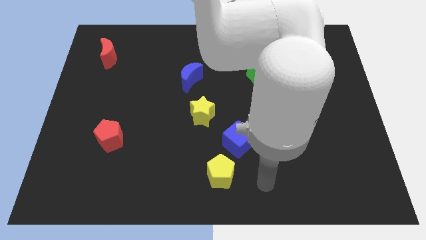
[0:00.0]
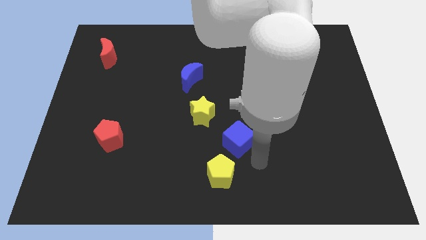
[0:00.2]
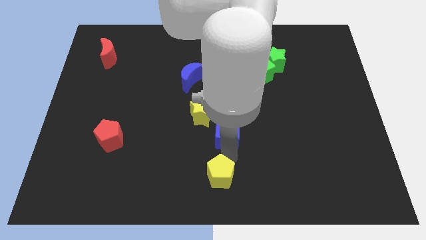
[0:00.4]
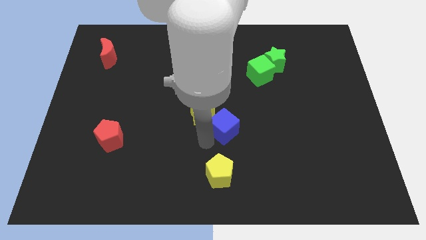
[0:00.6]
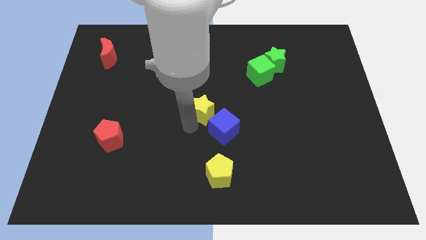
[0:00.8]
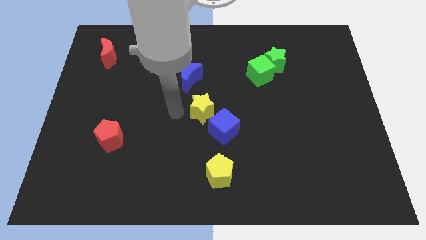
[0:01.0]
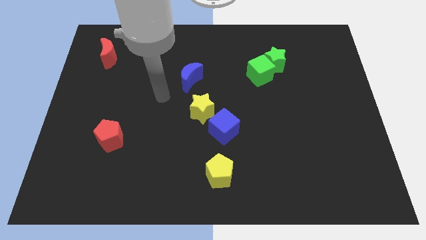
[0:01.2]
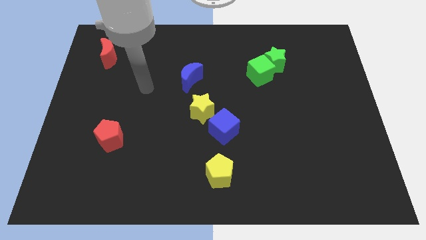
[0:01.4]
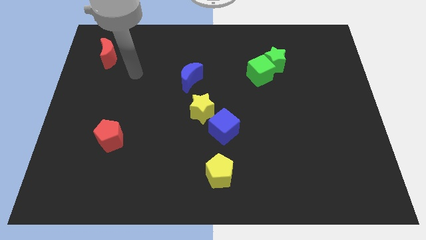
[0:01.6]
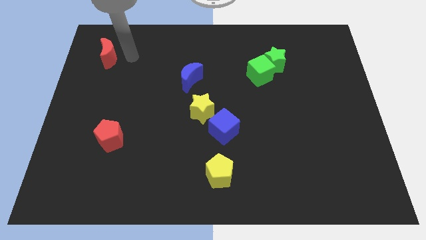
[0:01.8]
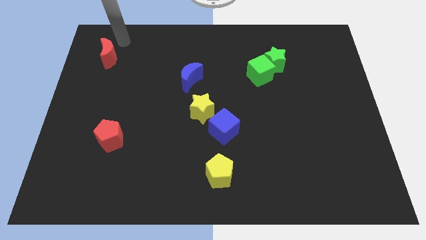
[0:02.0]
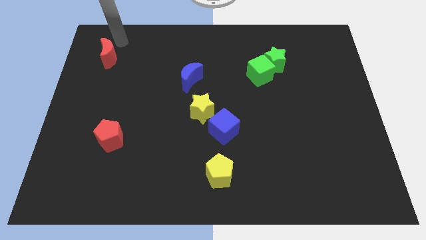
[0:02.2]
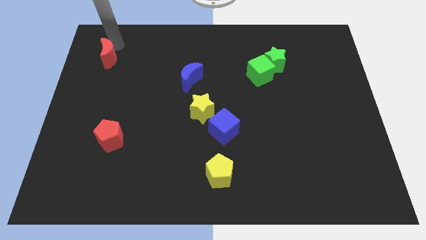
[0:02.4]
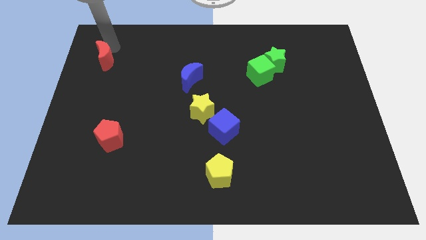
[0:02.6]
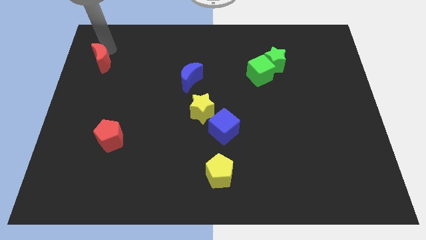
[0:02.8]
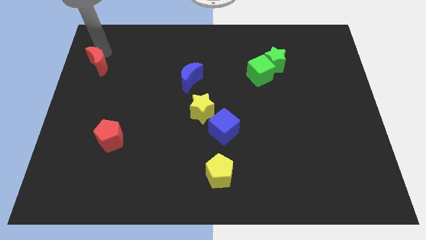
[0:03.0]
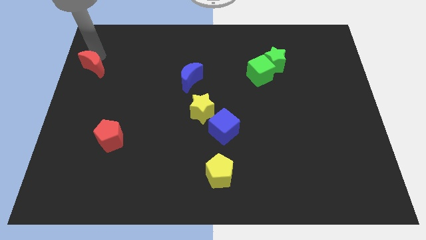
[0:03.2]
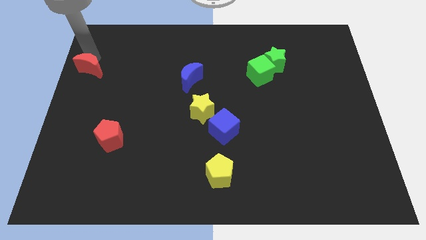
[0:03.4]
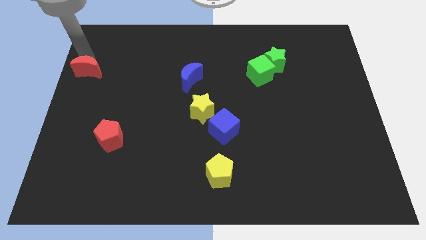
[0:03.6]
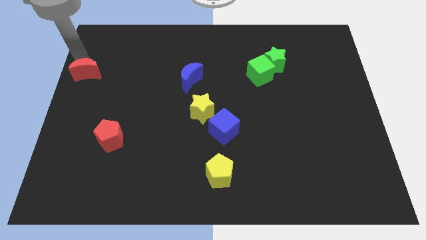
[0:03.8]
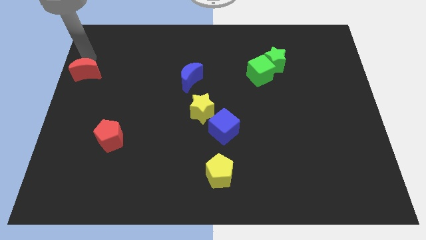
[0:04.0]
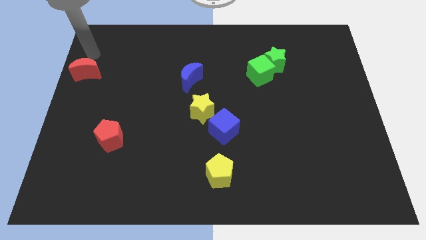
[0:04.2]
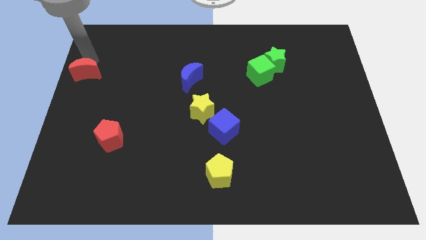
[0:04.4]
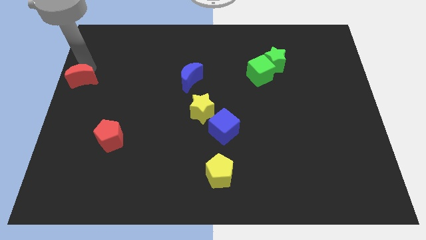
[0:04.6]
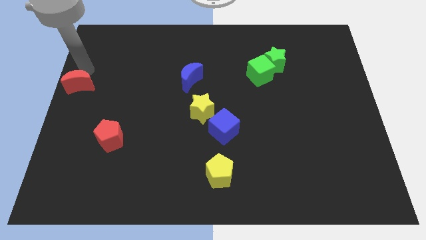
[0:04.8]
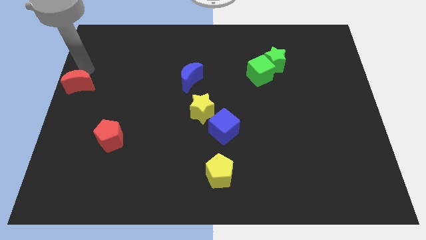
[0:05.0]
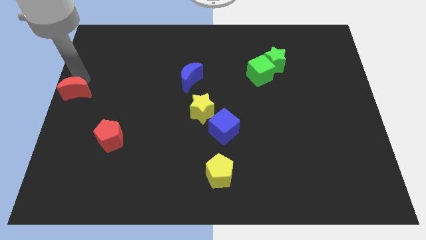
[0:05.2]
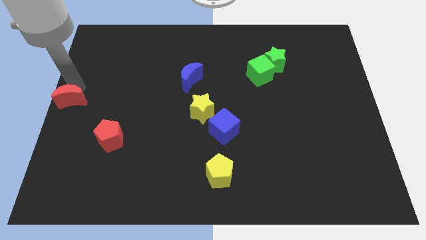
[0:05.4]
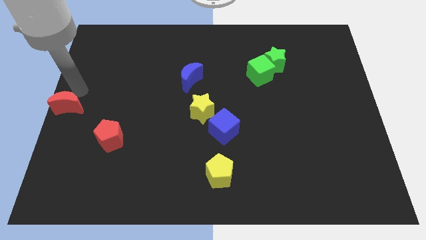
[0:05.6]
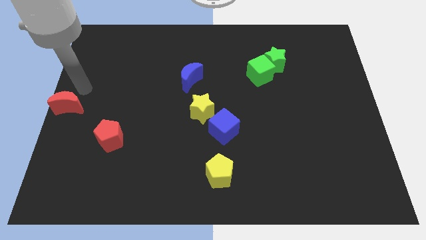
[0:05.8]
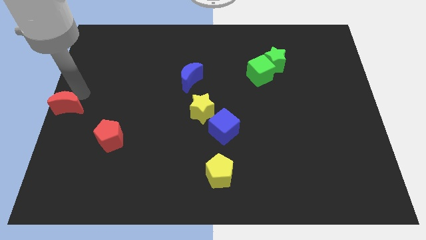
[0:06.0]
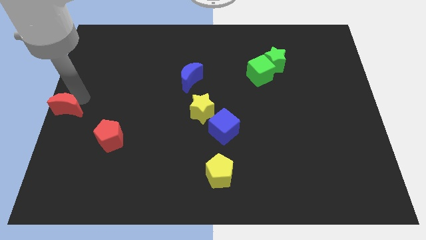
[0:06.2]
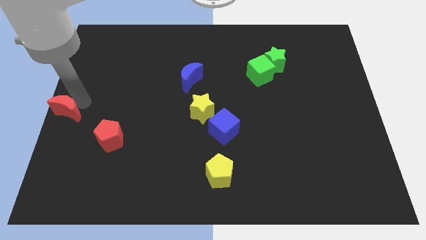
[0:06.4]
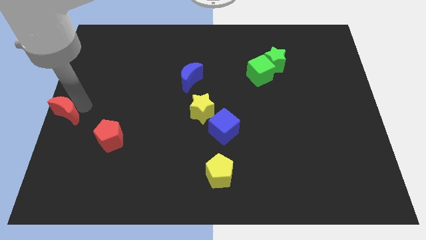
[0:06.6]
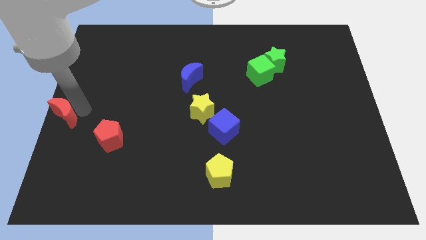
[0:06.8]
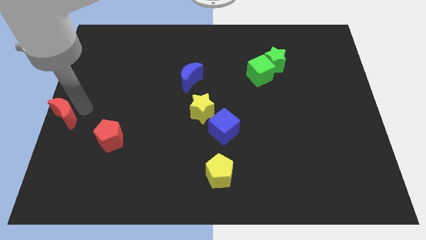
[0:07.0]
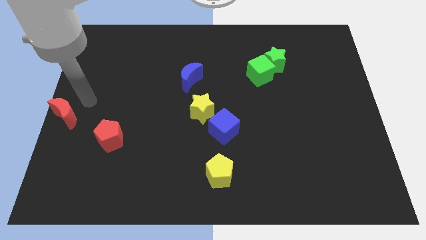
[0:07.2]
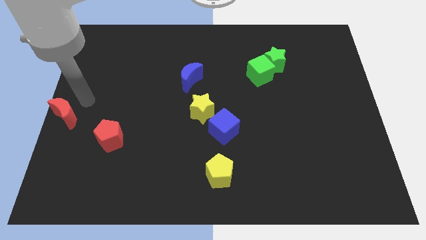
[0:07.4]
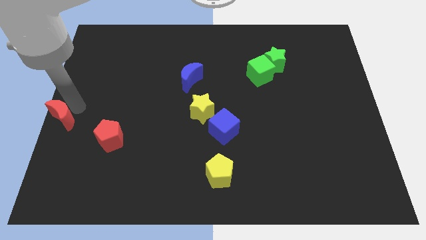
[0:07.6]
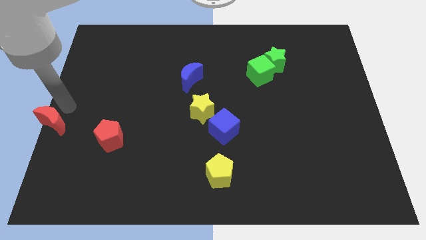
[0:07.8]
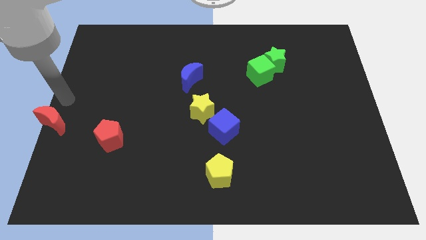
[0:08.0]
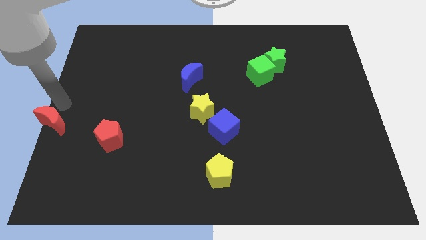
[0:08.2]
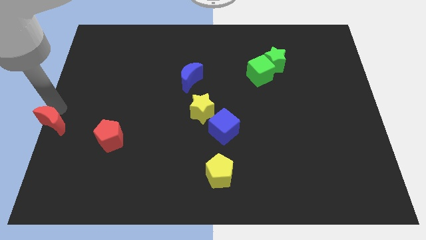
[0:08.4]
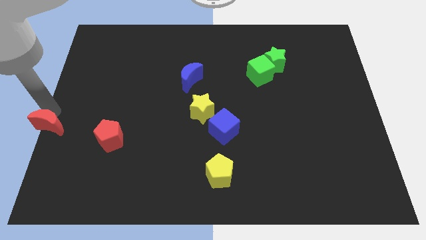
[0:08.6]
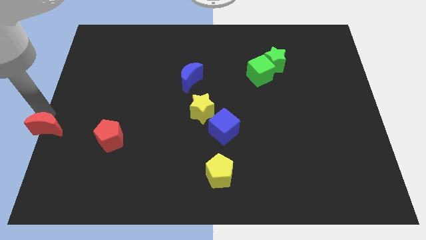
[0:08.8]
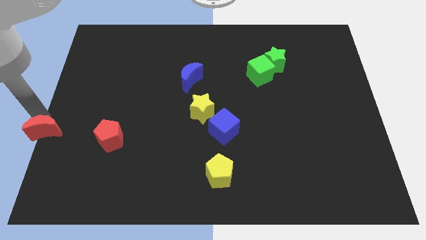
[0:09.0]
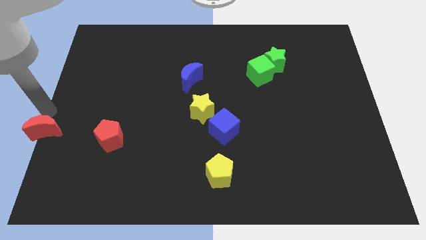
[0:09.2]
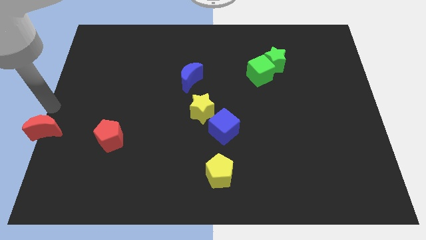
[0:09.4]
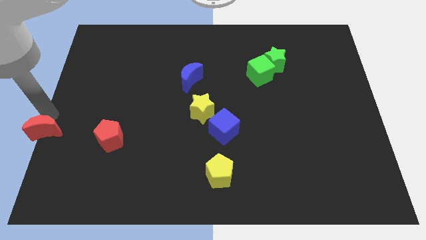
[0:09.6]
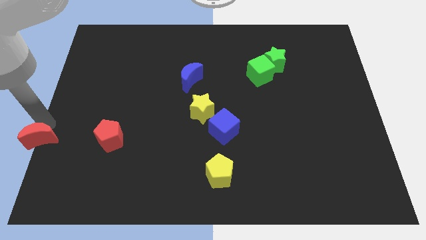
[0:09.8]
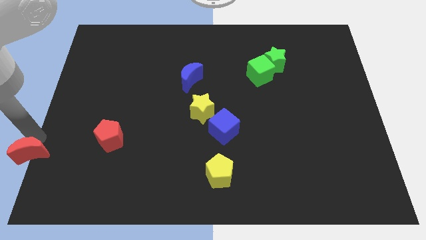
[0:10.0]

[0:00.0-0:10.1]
push the red moon to the bottom left of the board

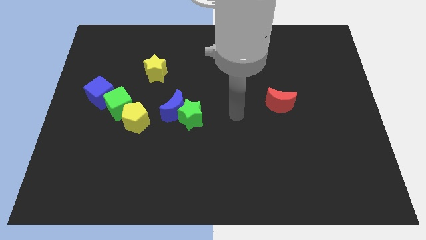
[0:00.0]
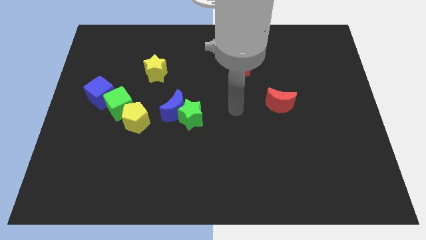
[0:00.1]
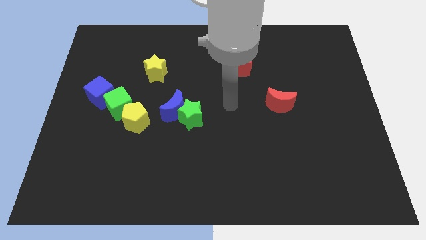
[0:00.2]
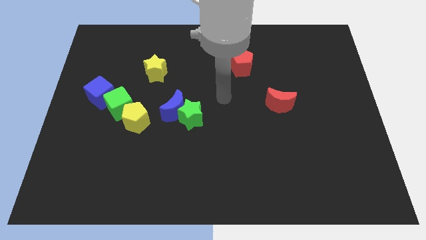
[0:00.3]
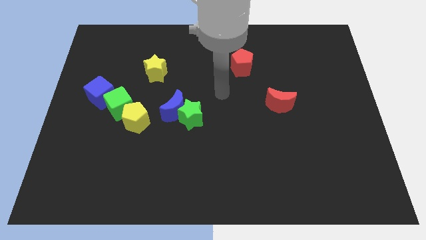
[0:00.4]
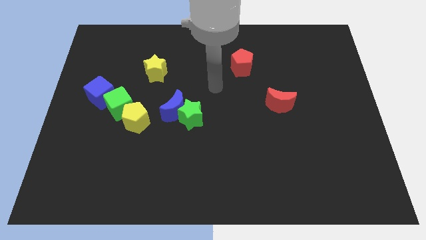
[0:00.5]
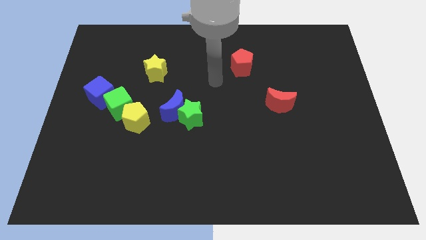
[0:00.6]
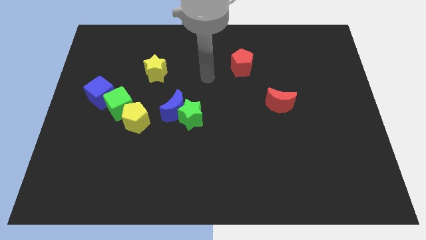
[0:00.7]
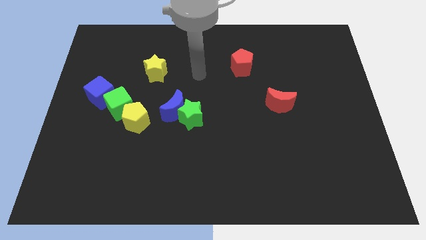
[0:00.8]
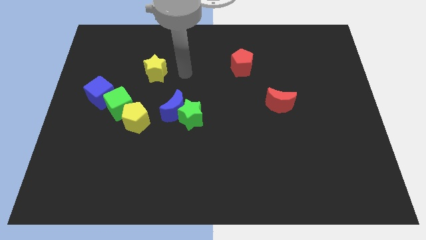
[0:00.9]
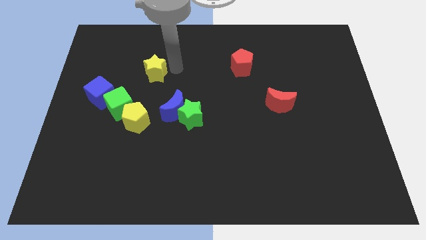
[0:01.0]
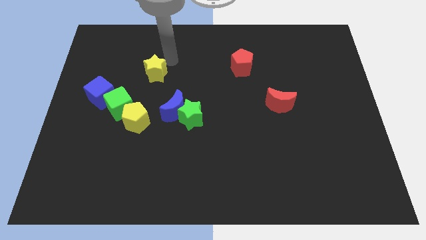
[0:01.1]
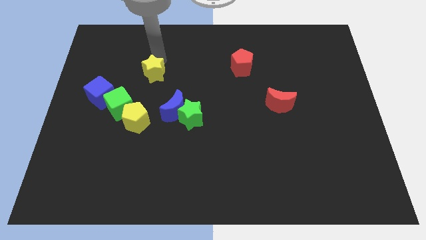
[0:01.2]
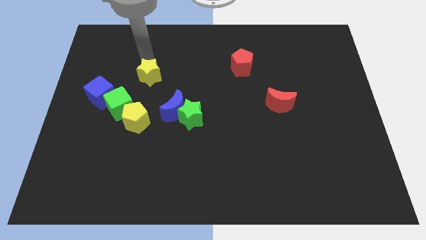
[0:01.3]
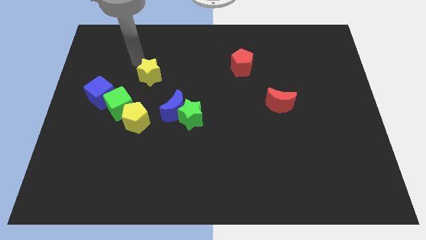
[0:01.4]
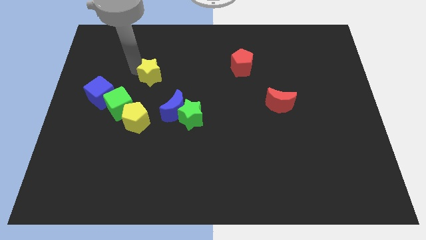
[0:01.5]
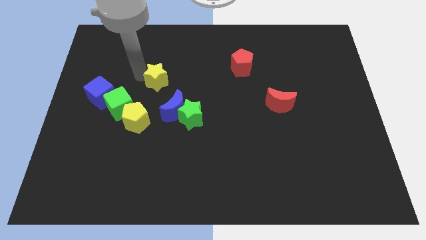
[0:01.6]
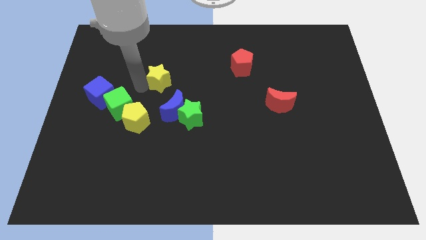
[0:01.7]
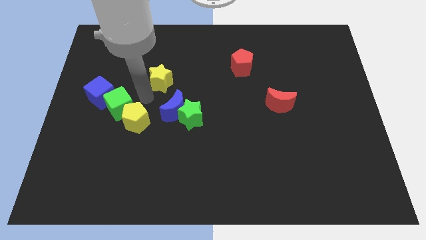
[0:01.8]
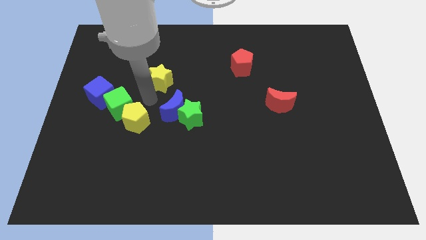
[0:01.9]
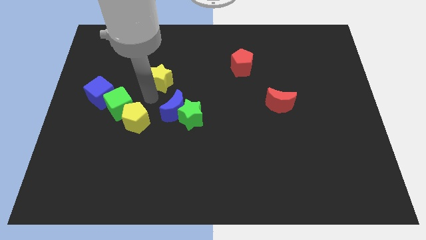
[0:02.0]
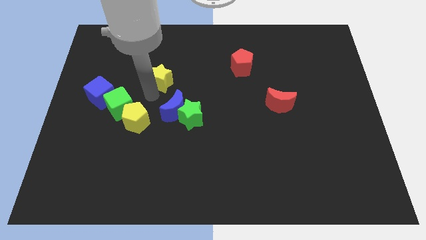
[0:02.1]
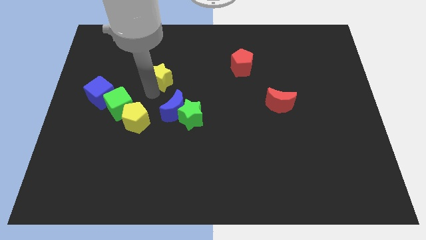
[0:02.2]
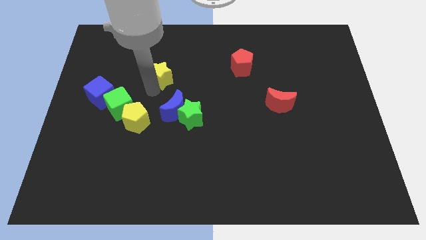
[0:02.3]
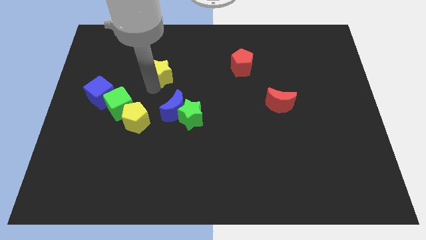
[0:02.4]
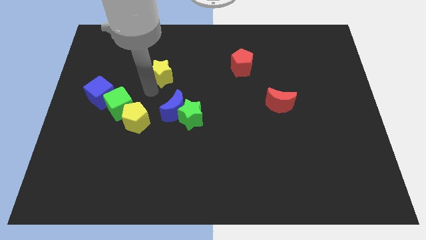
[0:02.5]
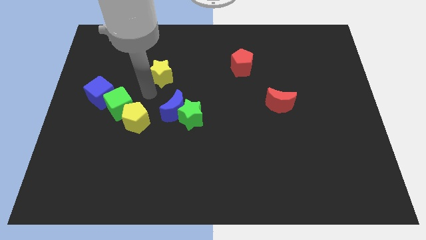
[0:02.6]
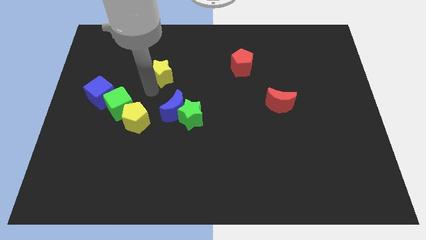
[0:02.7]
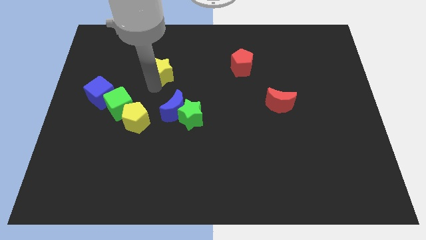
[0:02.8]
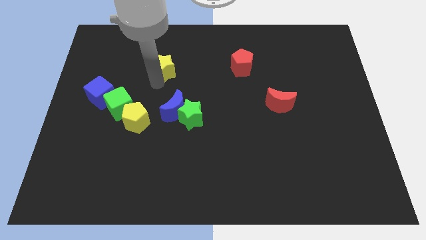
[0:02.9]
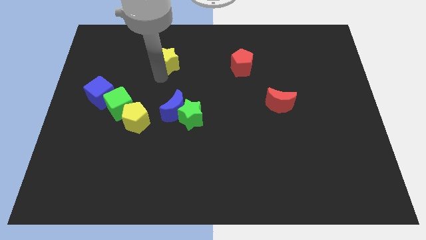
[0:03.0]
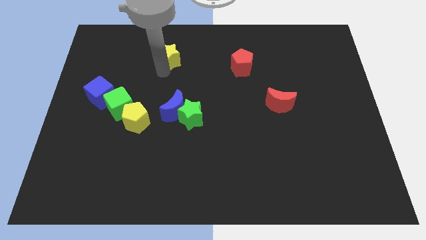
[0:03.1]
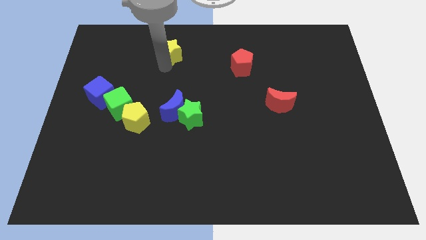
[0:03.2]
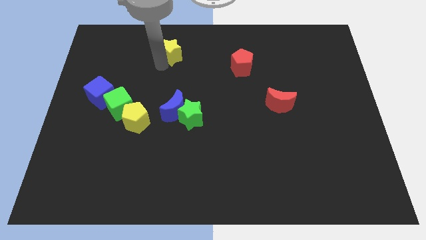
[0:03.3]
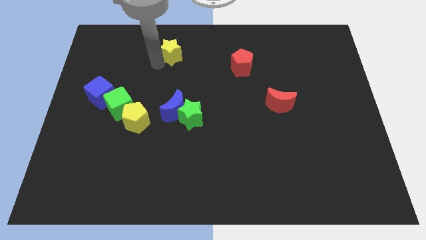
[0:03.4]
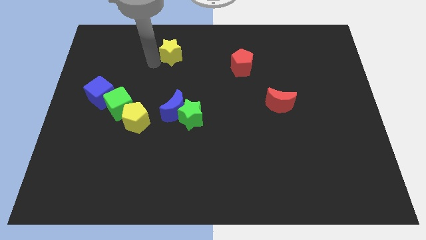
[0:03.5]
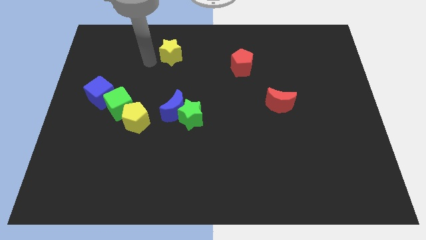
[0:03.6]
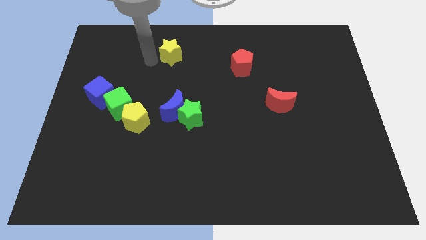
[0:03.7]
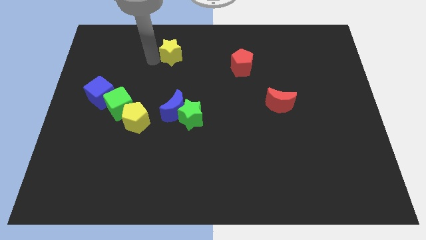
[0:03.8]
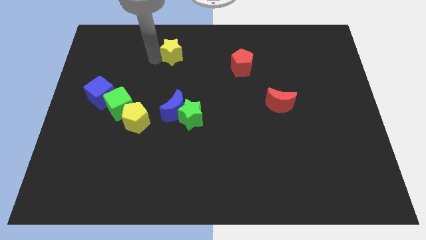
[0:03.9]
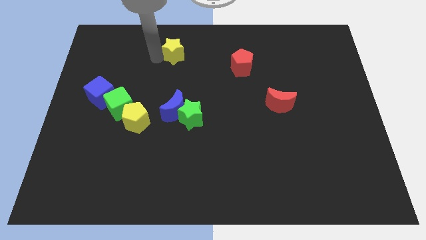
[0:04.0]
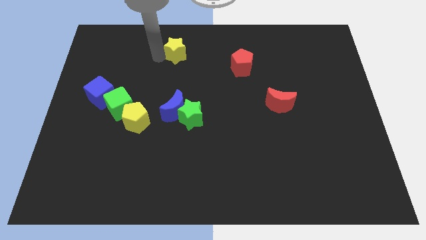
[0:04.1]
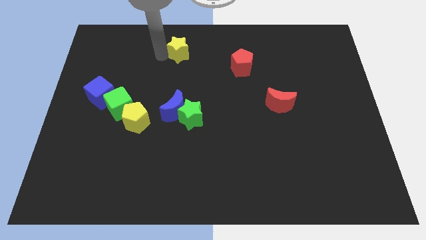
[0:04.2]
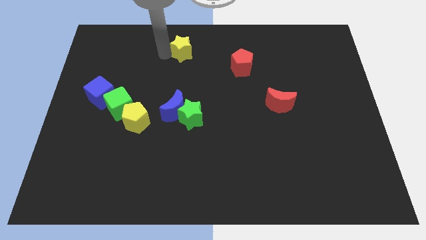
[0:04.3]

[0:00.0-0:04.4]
move the yellow star to the top
